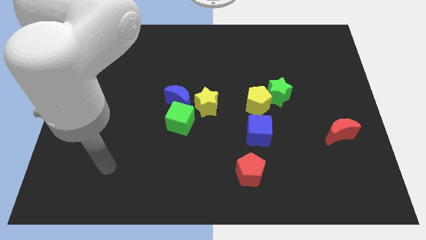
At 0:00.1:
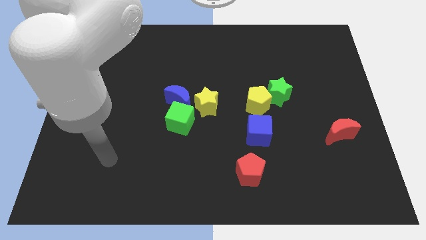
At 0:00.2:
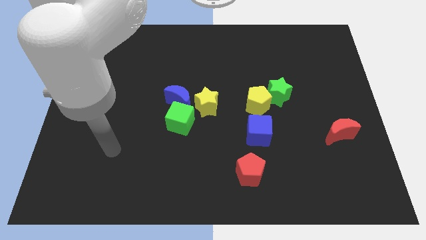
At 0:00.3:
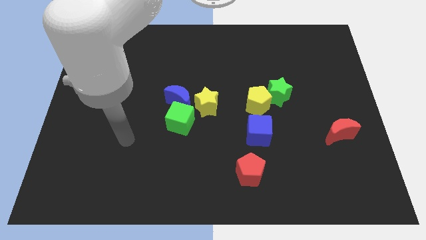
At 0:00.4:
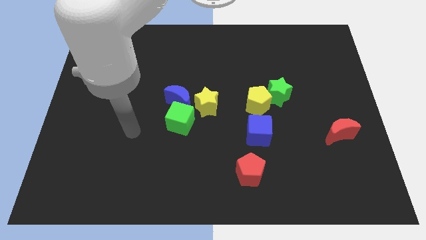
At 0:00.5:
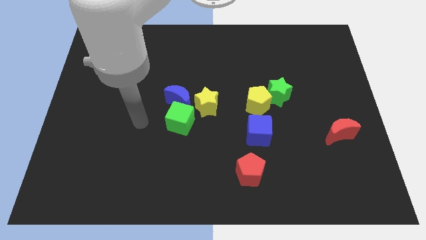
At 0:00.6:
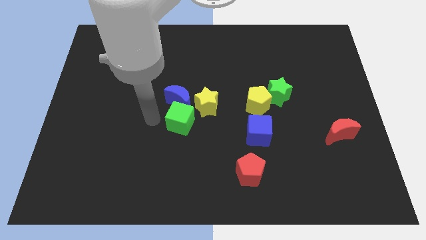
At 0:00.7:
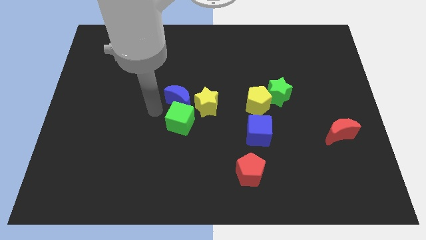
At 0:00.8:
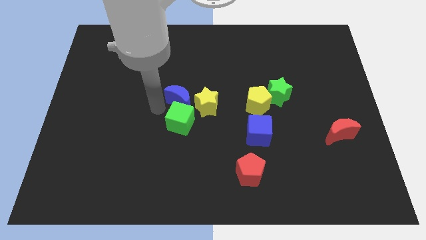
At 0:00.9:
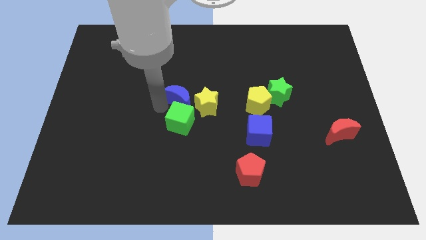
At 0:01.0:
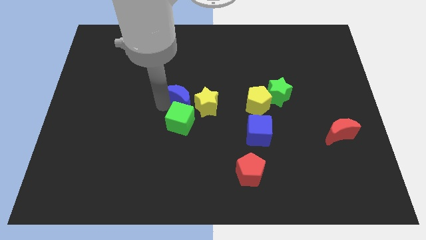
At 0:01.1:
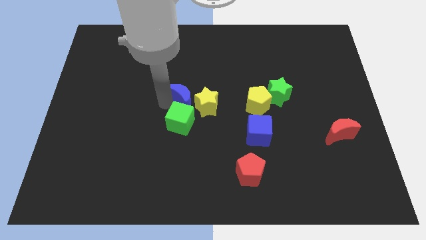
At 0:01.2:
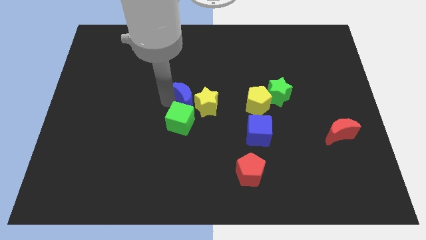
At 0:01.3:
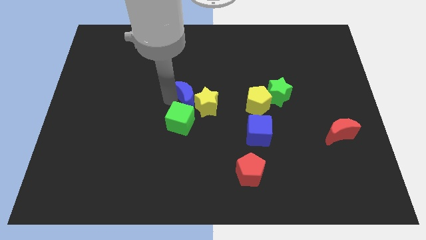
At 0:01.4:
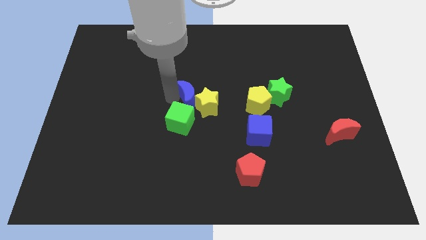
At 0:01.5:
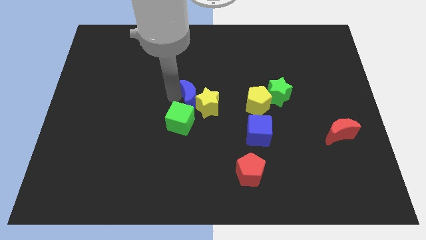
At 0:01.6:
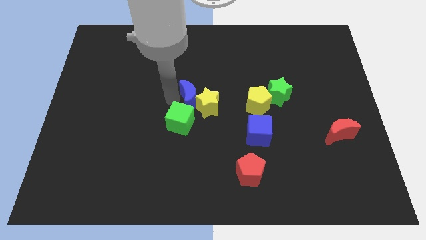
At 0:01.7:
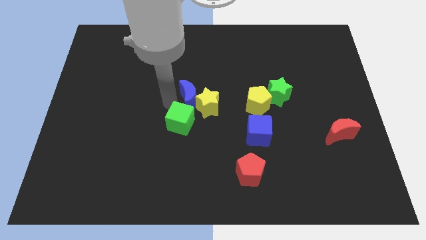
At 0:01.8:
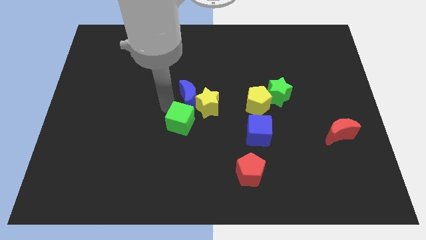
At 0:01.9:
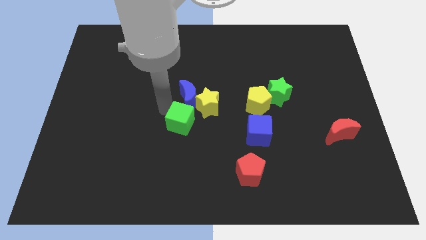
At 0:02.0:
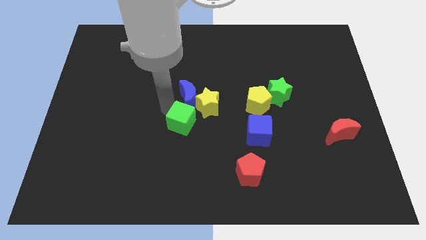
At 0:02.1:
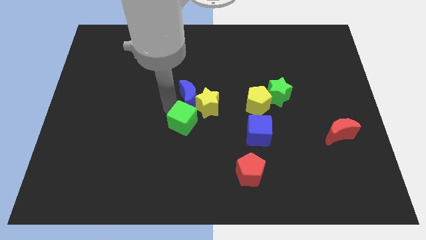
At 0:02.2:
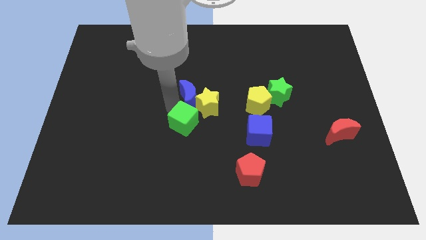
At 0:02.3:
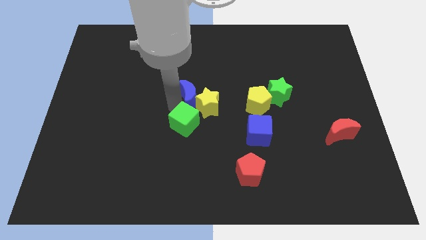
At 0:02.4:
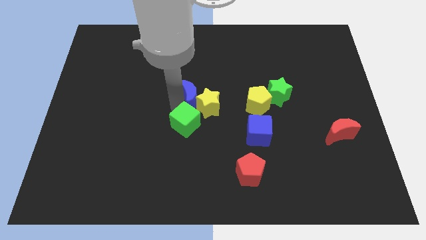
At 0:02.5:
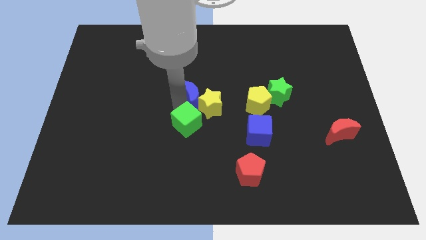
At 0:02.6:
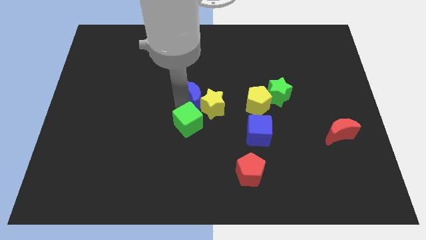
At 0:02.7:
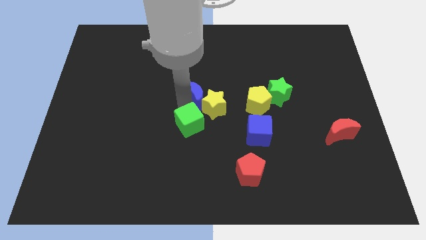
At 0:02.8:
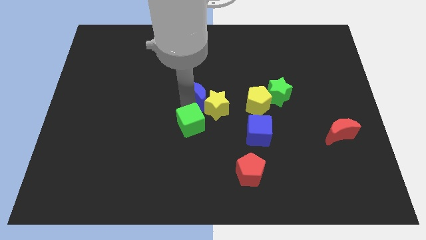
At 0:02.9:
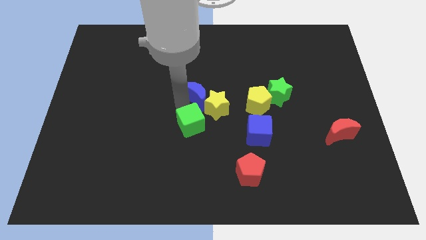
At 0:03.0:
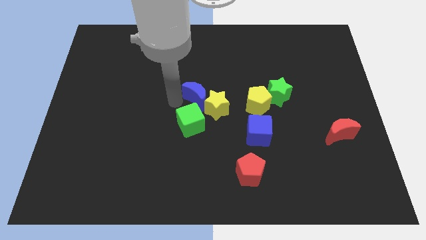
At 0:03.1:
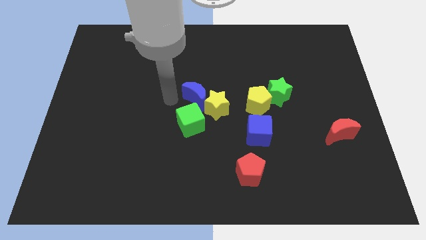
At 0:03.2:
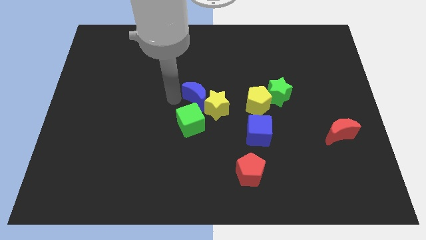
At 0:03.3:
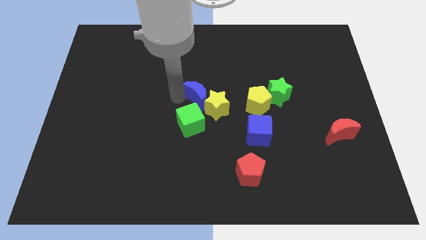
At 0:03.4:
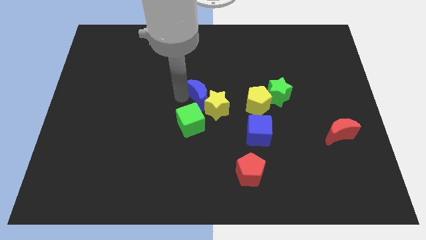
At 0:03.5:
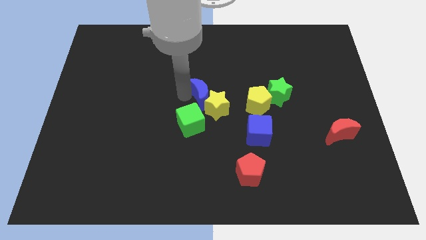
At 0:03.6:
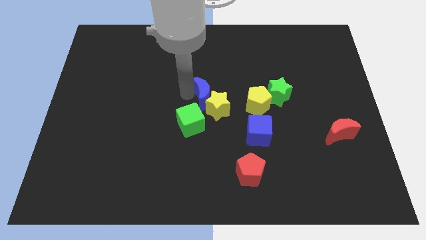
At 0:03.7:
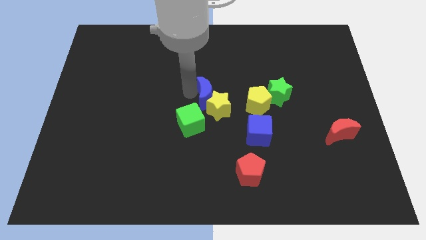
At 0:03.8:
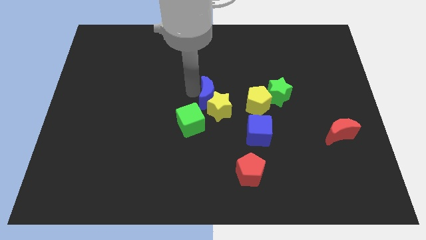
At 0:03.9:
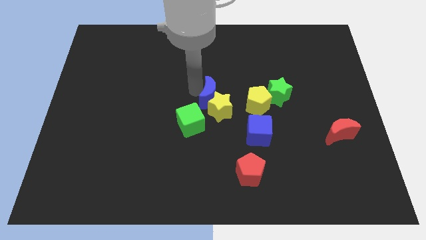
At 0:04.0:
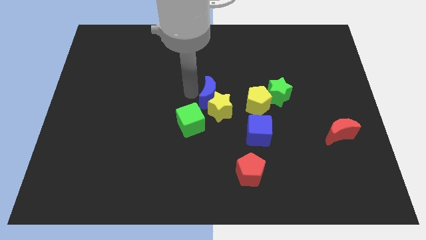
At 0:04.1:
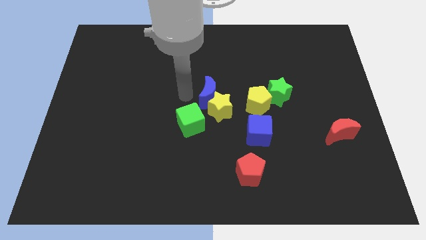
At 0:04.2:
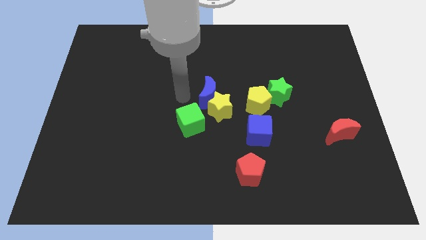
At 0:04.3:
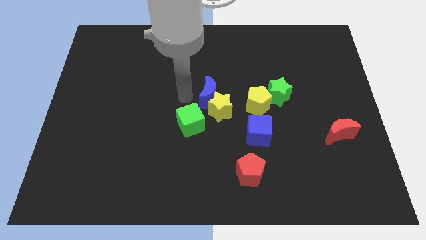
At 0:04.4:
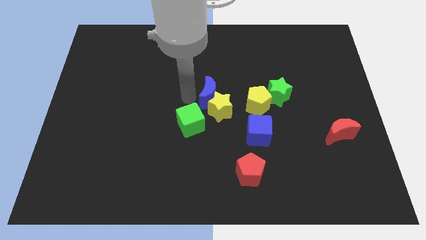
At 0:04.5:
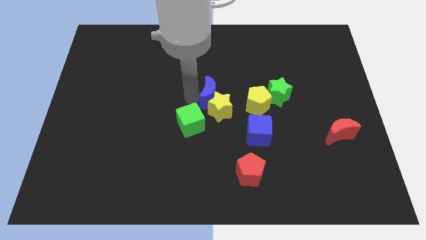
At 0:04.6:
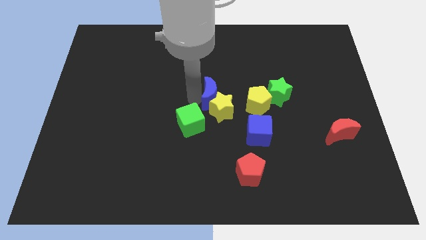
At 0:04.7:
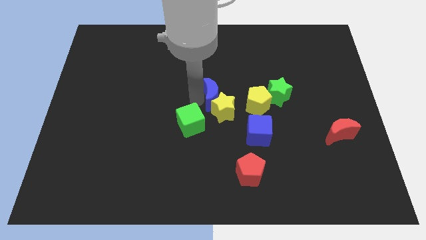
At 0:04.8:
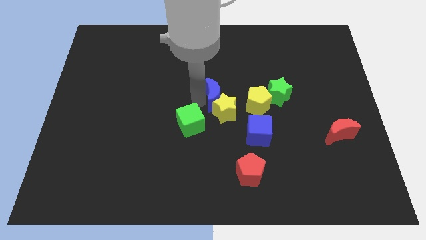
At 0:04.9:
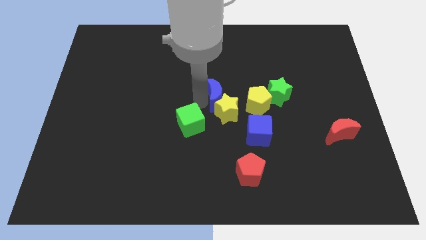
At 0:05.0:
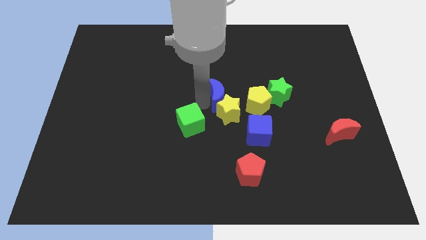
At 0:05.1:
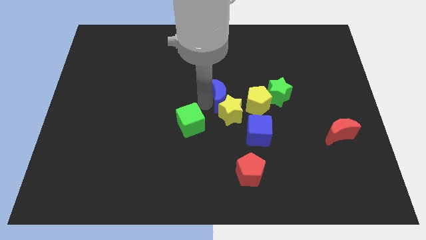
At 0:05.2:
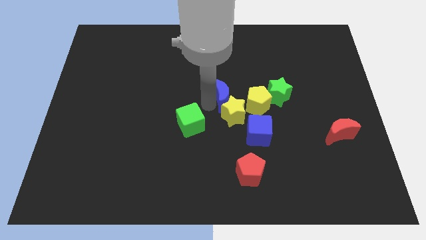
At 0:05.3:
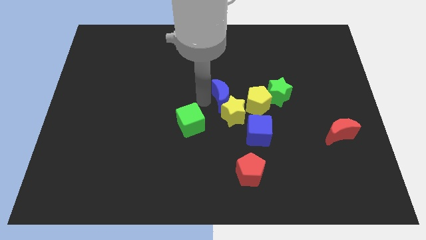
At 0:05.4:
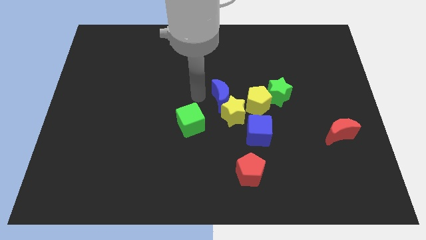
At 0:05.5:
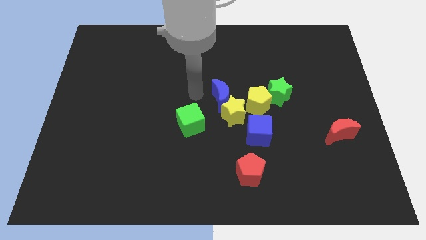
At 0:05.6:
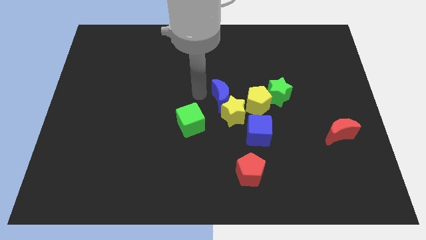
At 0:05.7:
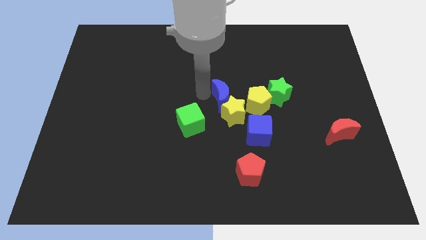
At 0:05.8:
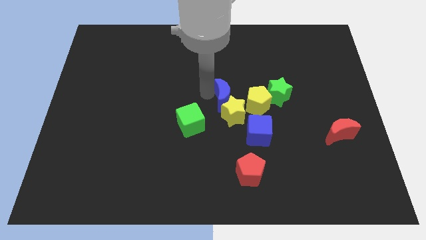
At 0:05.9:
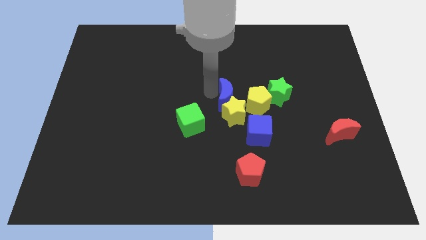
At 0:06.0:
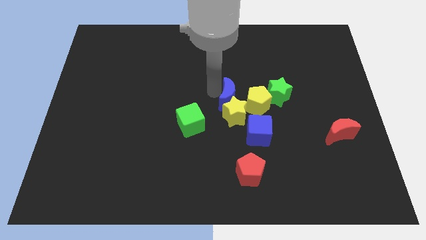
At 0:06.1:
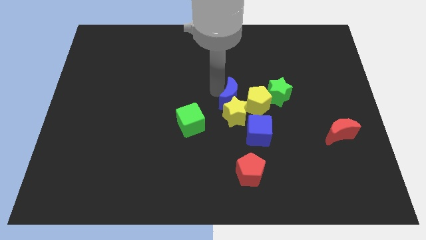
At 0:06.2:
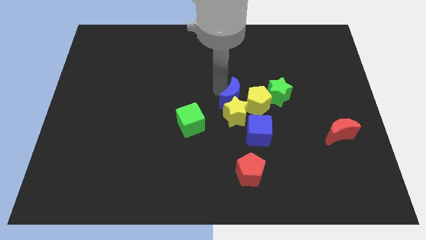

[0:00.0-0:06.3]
slide the blue moon towards the yellow pentagon

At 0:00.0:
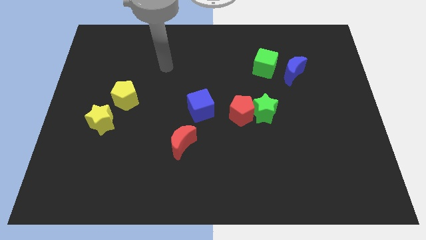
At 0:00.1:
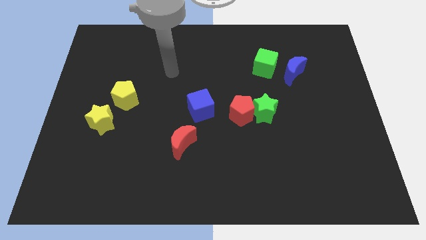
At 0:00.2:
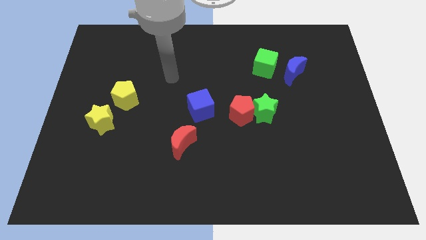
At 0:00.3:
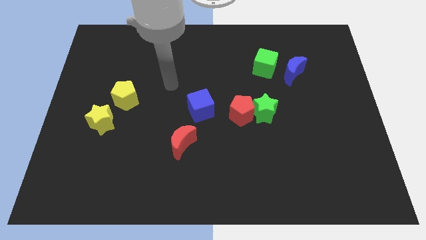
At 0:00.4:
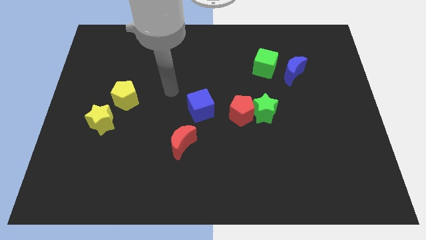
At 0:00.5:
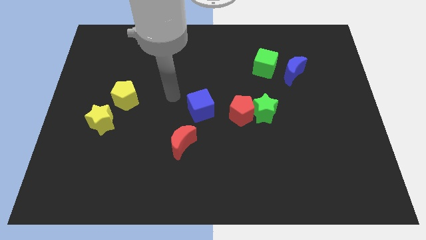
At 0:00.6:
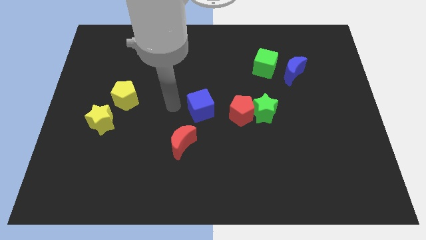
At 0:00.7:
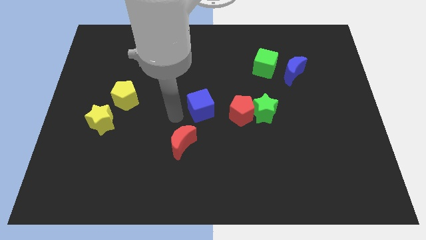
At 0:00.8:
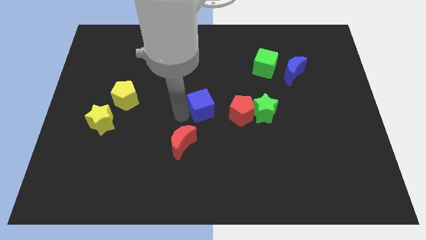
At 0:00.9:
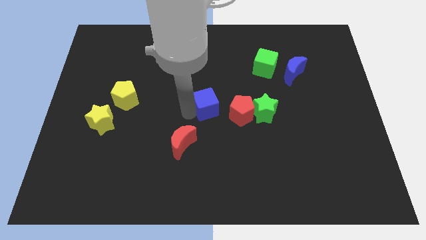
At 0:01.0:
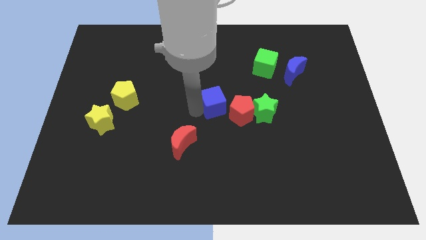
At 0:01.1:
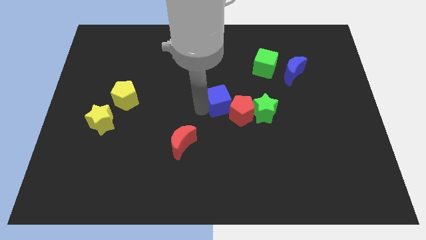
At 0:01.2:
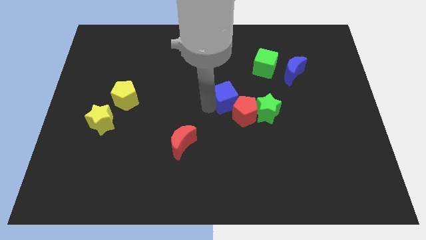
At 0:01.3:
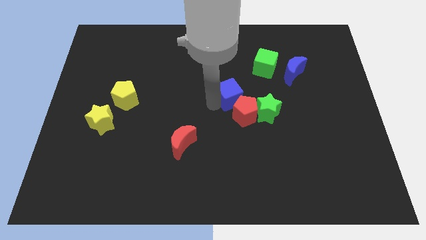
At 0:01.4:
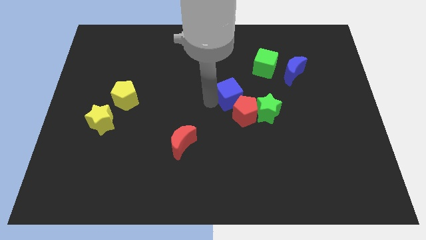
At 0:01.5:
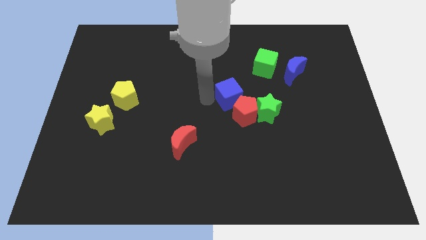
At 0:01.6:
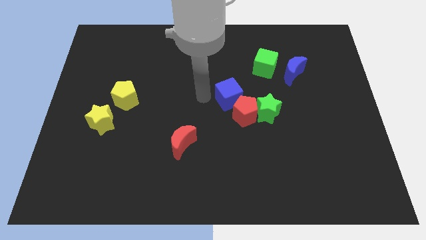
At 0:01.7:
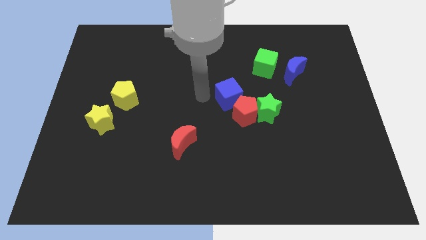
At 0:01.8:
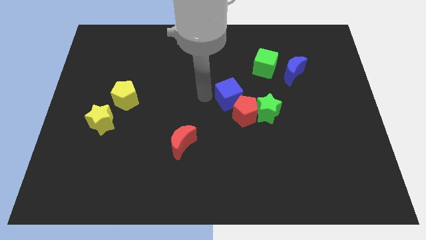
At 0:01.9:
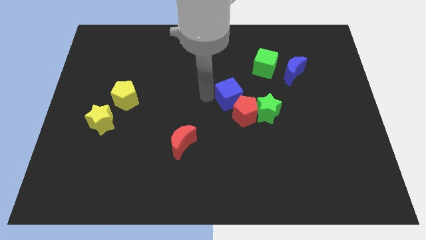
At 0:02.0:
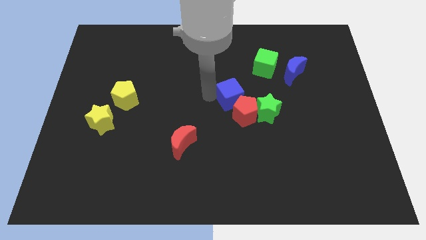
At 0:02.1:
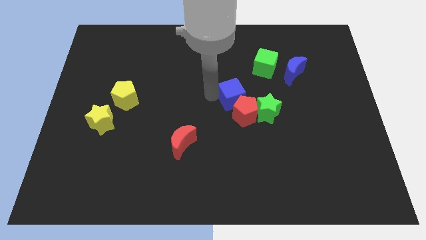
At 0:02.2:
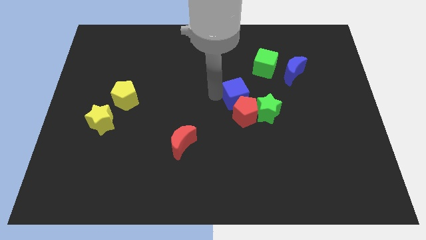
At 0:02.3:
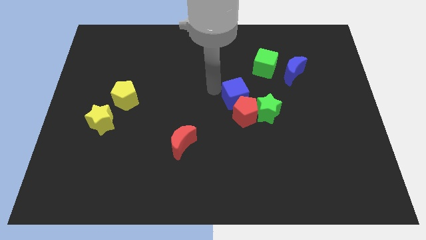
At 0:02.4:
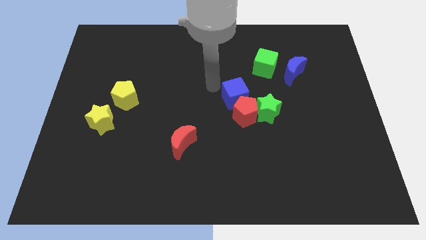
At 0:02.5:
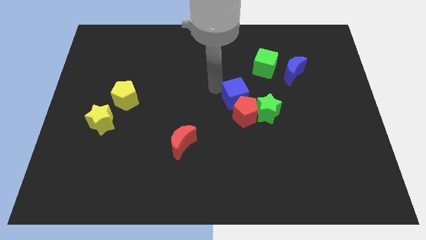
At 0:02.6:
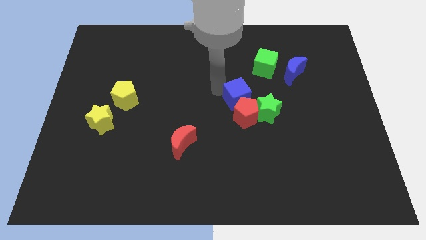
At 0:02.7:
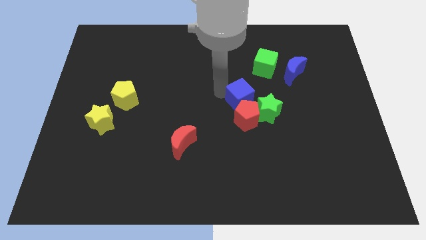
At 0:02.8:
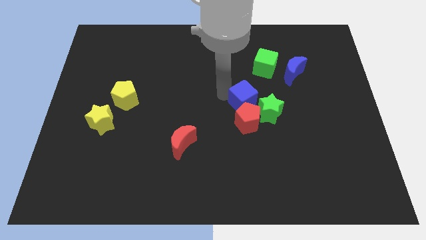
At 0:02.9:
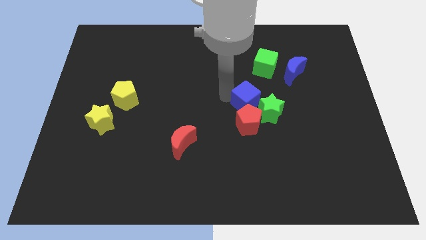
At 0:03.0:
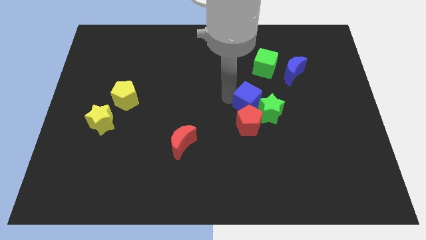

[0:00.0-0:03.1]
move the blue cube towards the green star
